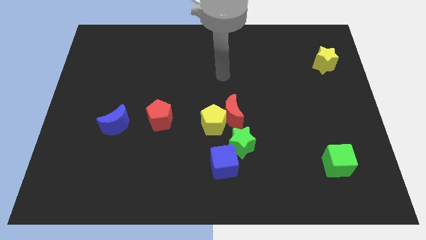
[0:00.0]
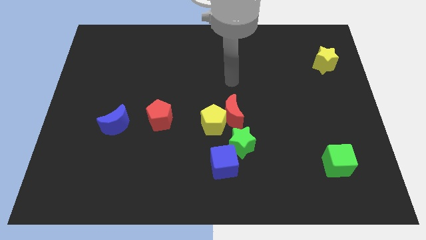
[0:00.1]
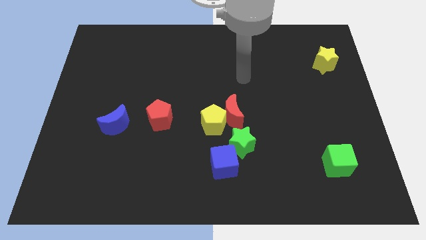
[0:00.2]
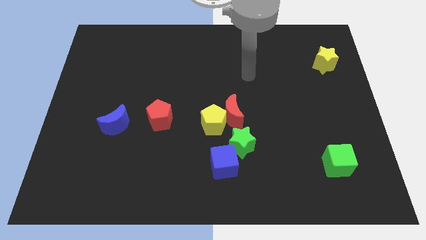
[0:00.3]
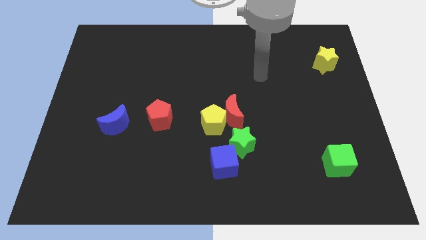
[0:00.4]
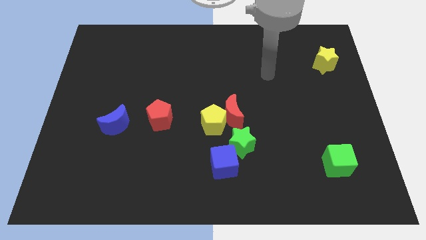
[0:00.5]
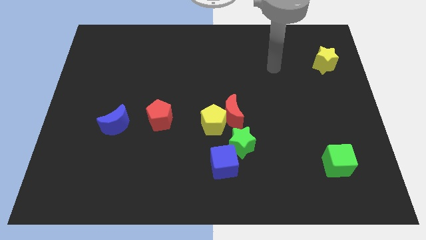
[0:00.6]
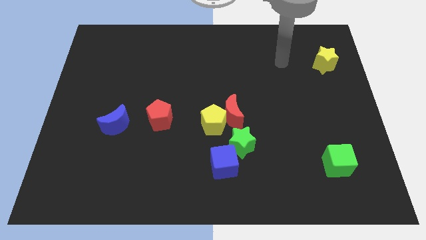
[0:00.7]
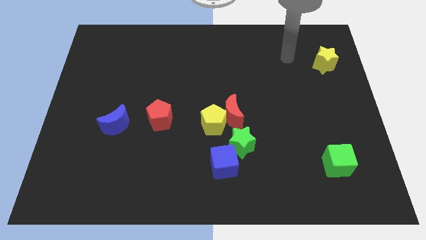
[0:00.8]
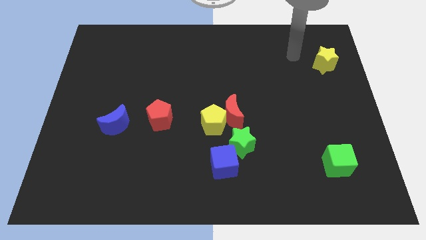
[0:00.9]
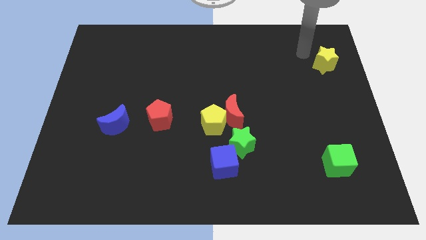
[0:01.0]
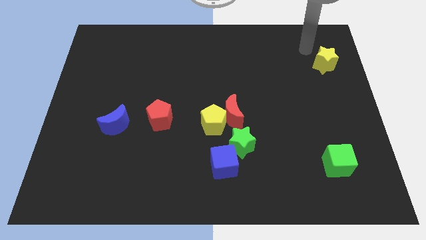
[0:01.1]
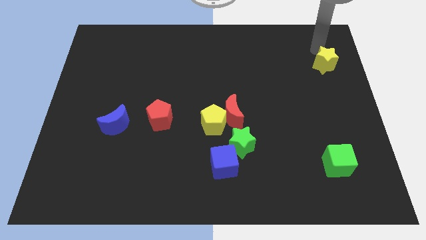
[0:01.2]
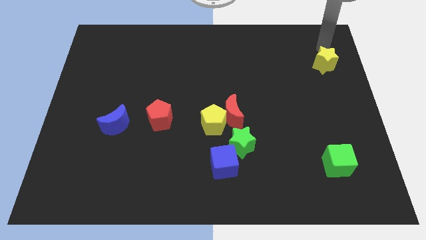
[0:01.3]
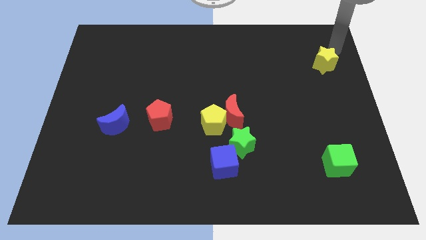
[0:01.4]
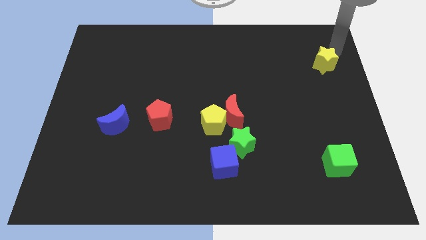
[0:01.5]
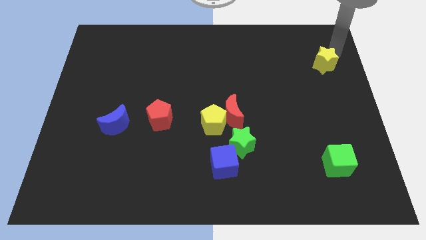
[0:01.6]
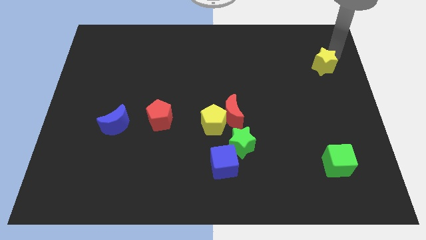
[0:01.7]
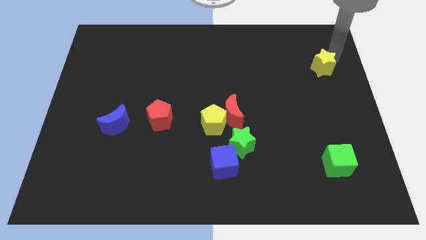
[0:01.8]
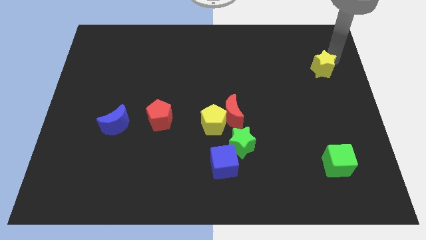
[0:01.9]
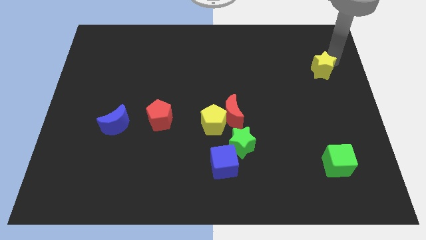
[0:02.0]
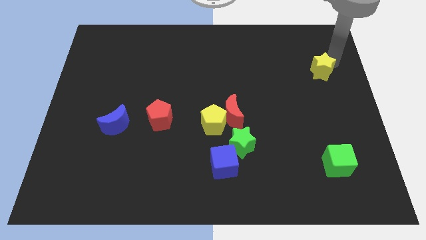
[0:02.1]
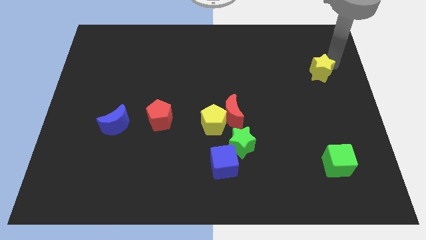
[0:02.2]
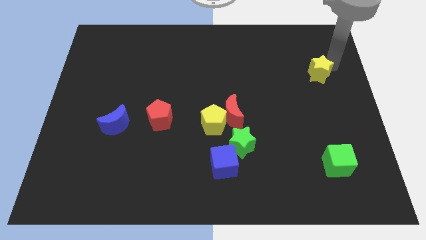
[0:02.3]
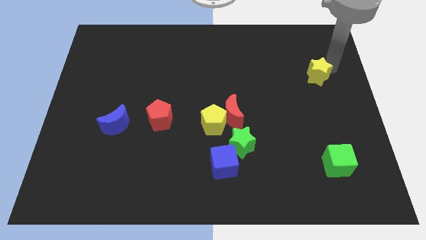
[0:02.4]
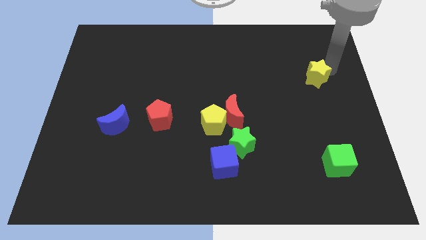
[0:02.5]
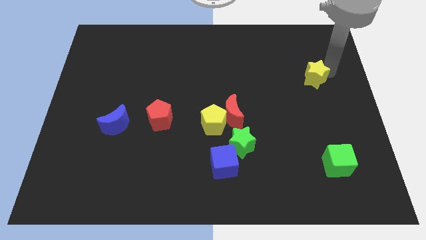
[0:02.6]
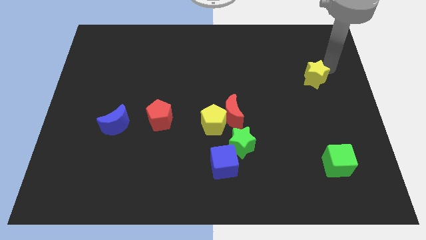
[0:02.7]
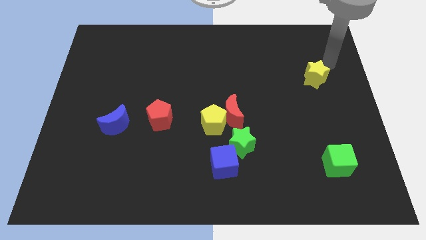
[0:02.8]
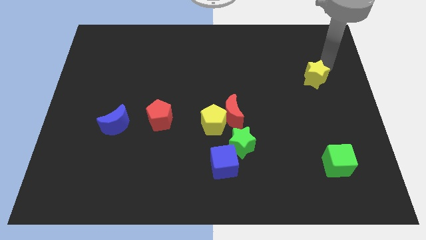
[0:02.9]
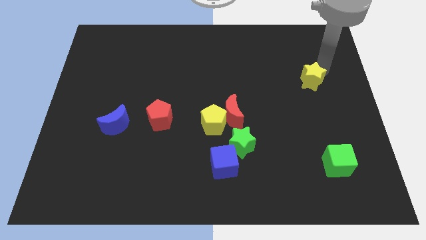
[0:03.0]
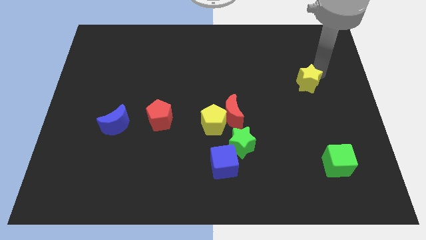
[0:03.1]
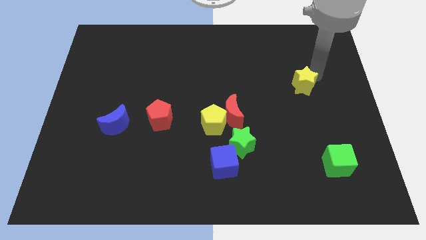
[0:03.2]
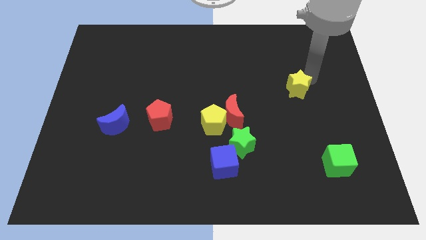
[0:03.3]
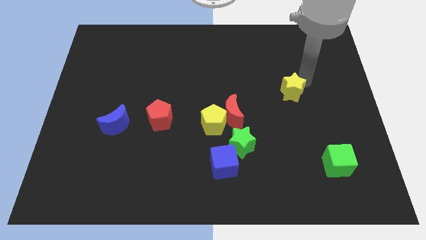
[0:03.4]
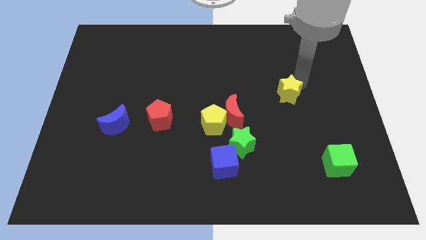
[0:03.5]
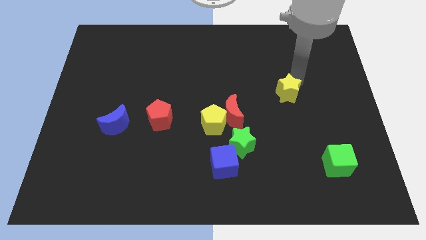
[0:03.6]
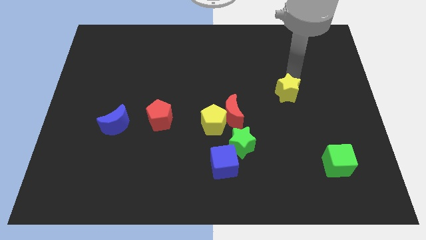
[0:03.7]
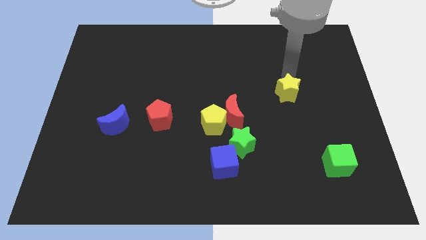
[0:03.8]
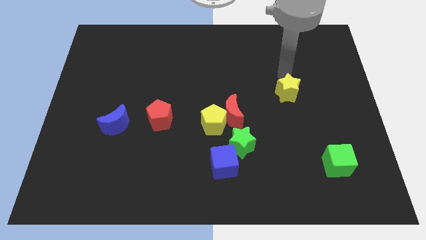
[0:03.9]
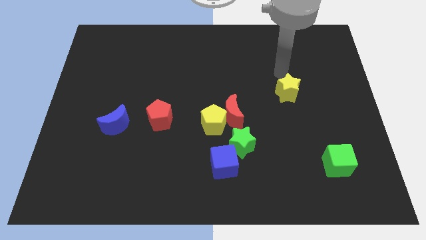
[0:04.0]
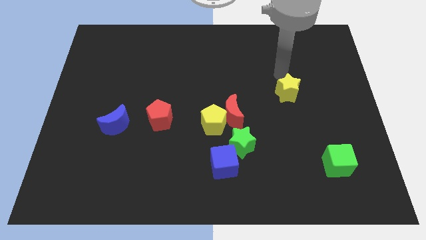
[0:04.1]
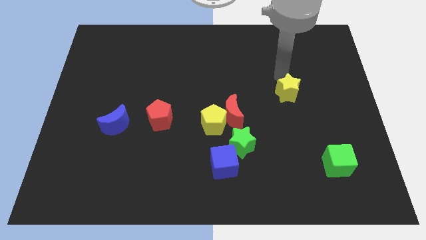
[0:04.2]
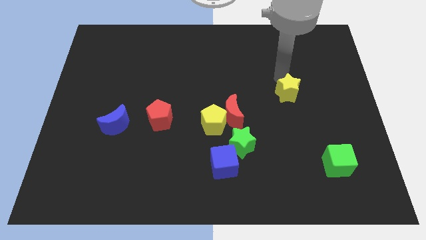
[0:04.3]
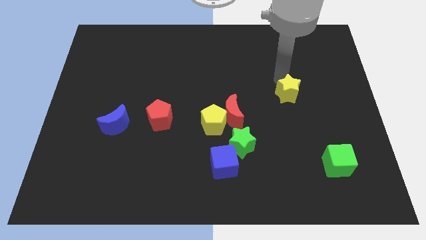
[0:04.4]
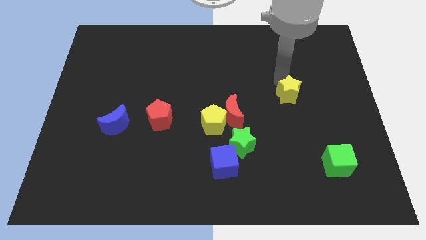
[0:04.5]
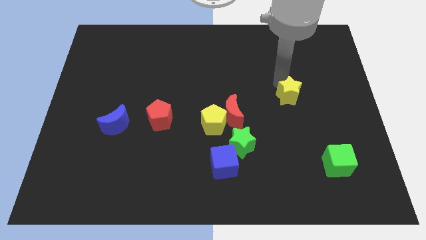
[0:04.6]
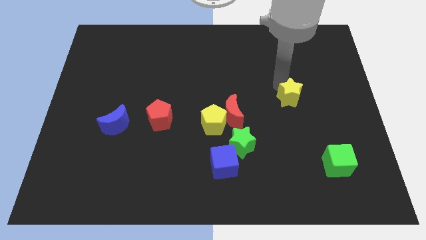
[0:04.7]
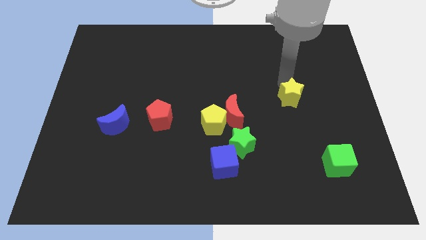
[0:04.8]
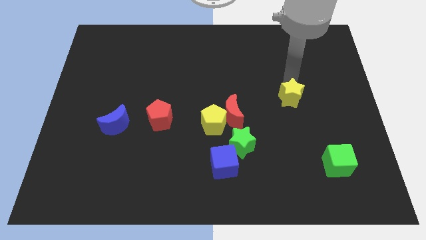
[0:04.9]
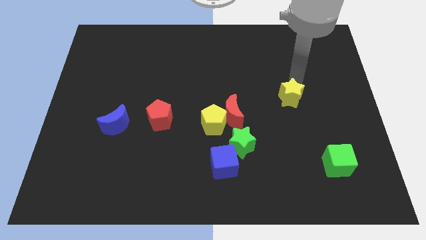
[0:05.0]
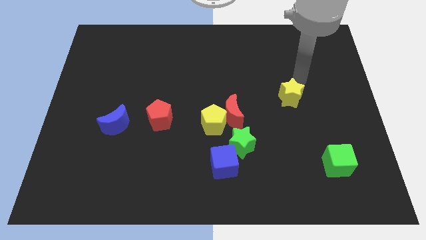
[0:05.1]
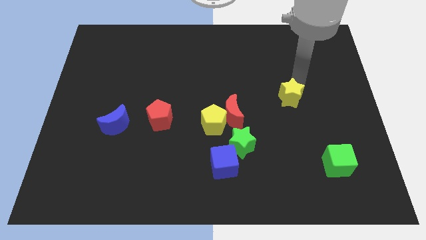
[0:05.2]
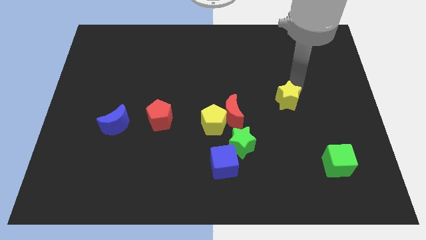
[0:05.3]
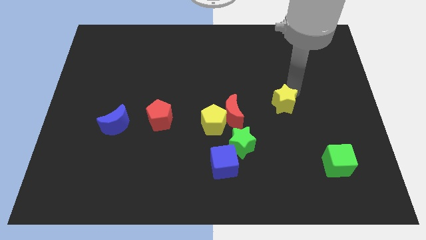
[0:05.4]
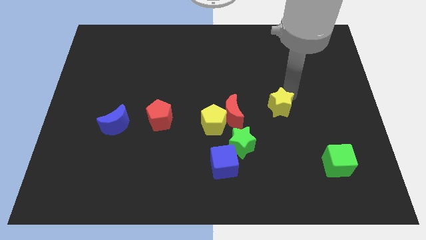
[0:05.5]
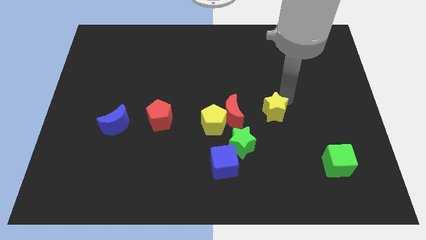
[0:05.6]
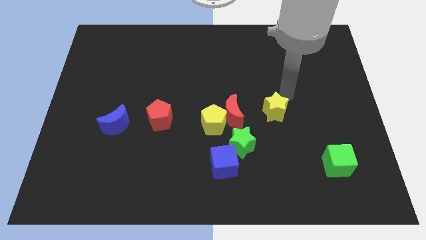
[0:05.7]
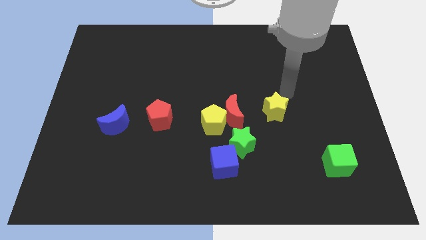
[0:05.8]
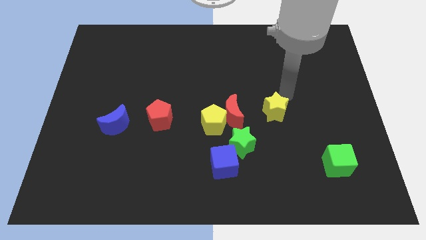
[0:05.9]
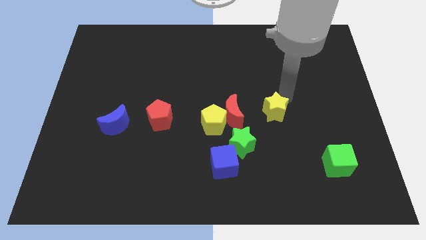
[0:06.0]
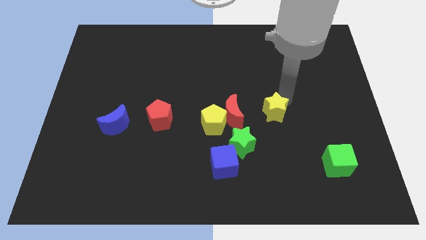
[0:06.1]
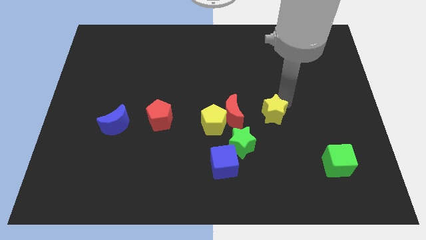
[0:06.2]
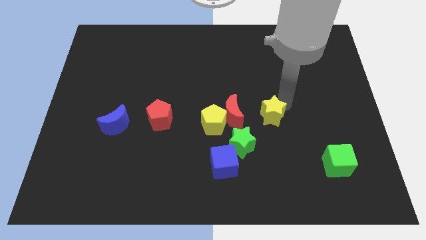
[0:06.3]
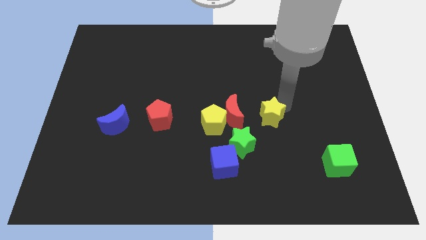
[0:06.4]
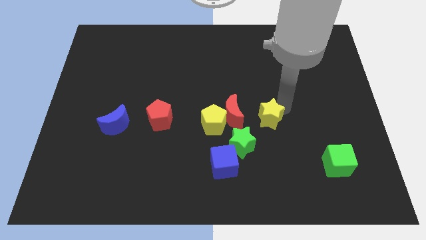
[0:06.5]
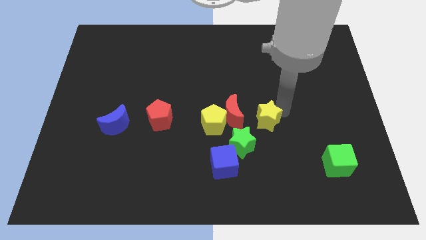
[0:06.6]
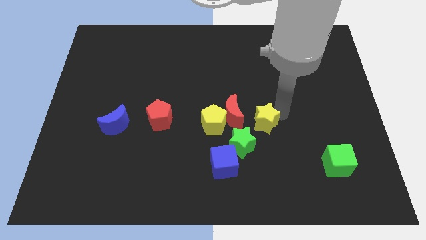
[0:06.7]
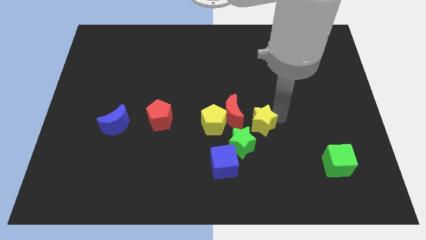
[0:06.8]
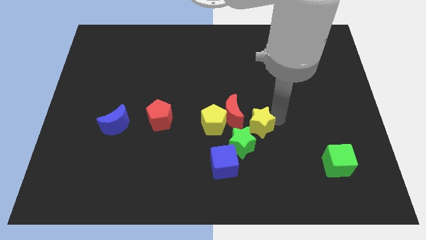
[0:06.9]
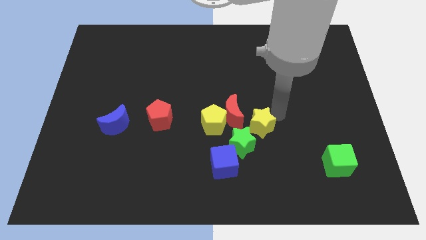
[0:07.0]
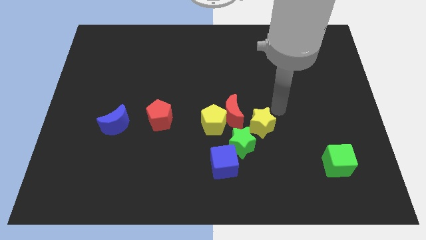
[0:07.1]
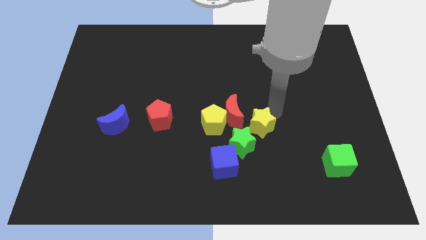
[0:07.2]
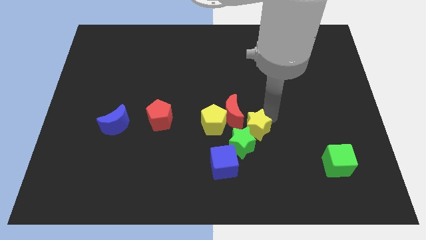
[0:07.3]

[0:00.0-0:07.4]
put the yellow star next to the green star

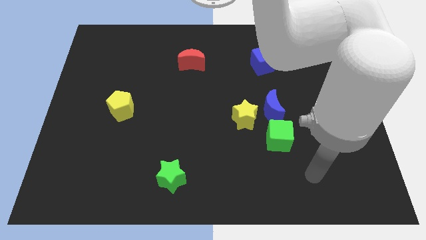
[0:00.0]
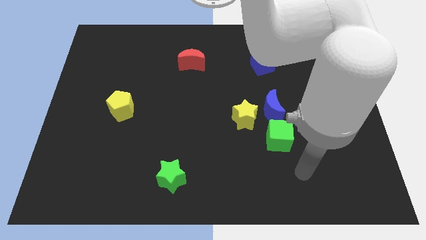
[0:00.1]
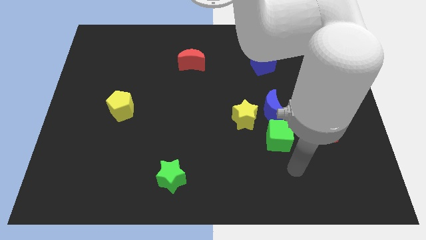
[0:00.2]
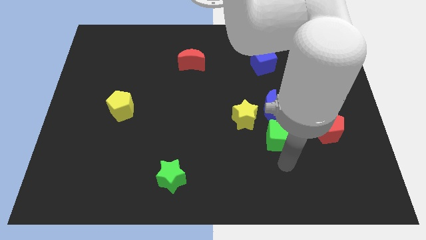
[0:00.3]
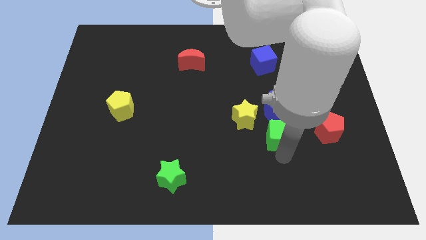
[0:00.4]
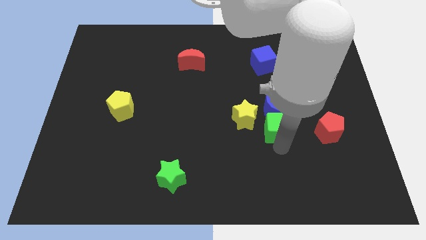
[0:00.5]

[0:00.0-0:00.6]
push the green cube towards the blue moon
